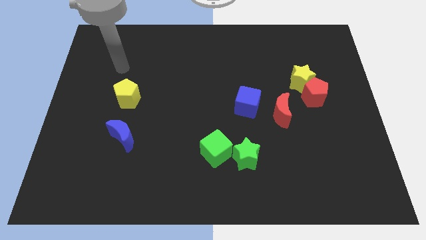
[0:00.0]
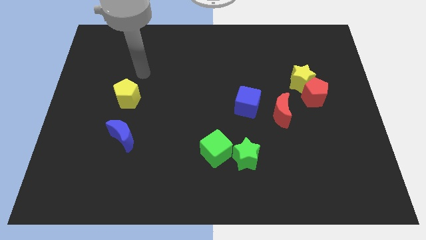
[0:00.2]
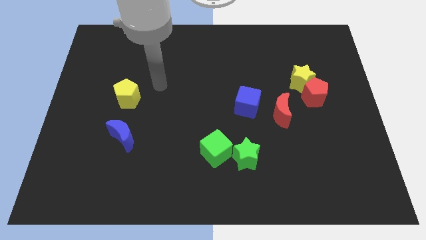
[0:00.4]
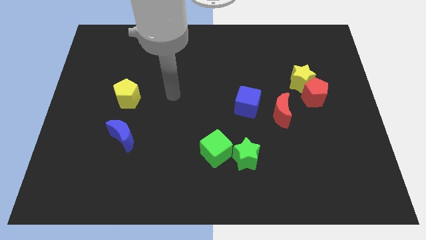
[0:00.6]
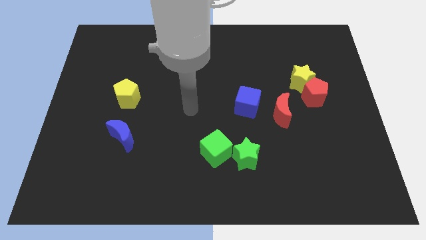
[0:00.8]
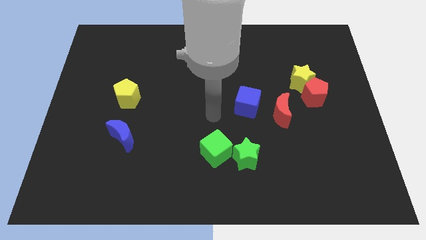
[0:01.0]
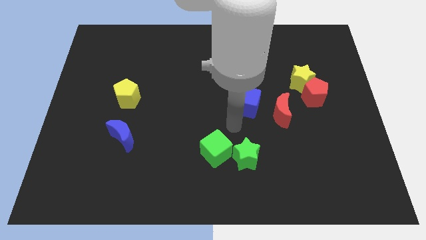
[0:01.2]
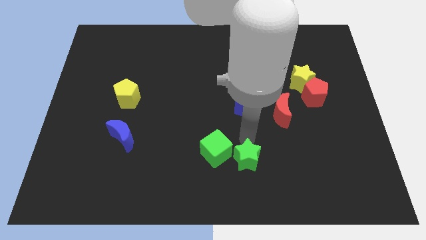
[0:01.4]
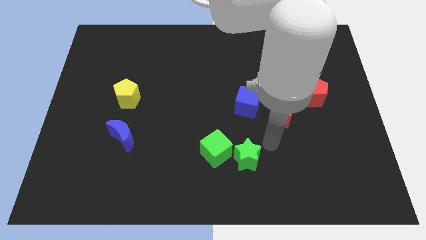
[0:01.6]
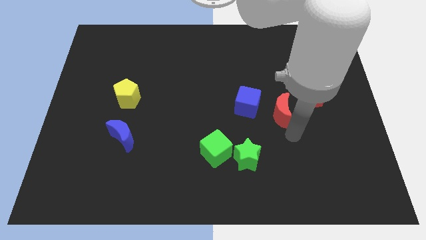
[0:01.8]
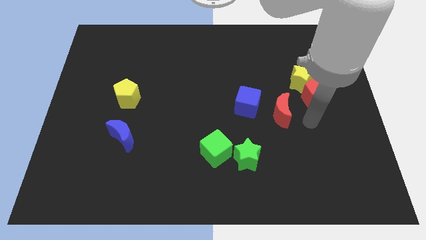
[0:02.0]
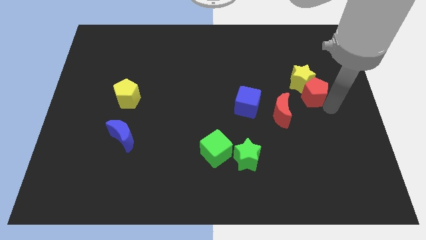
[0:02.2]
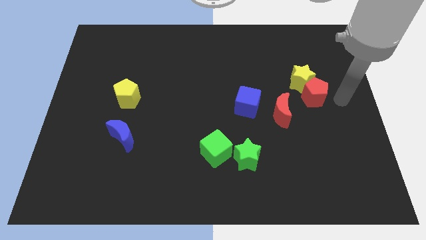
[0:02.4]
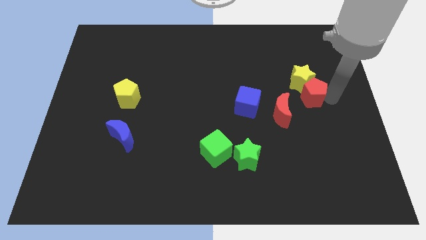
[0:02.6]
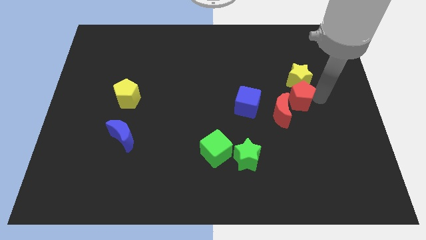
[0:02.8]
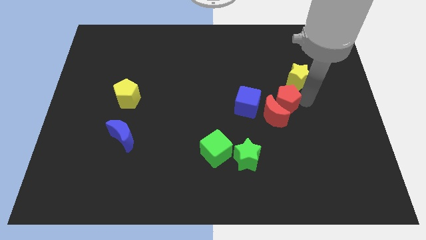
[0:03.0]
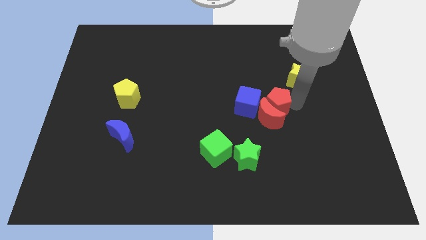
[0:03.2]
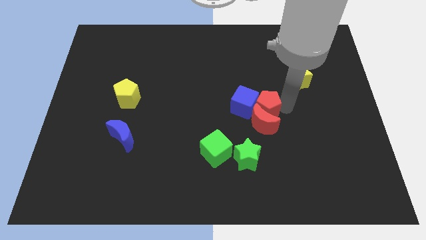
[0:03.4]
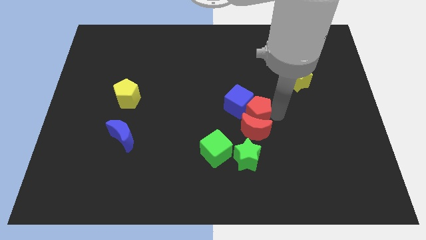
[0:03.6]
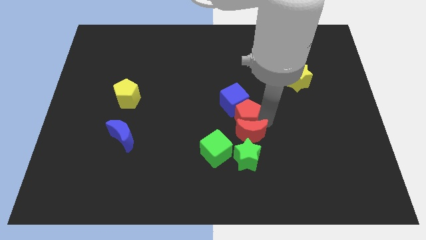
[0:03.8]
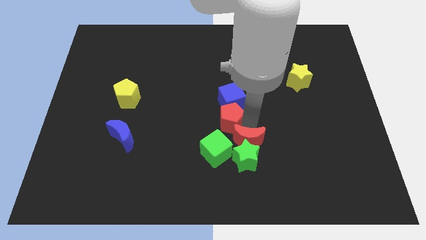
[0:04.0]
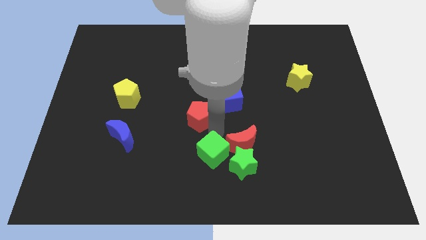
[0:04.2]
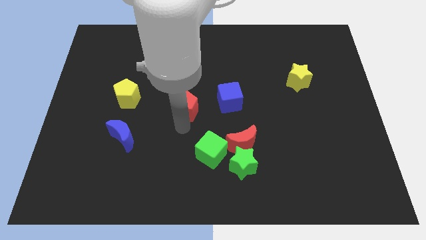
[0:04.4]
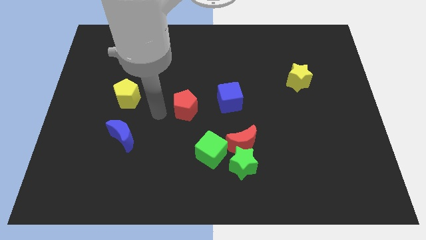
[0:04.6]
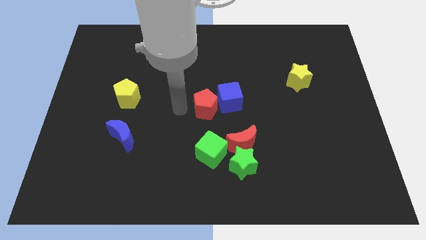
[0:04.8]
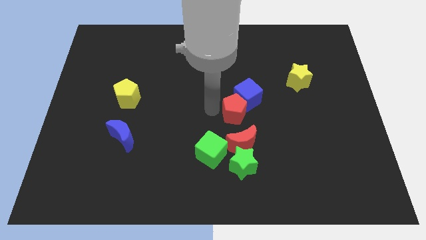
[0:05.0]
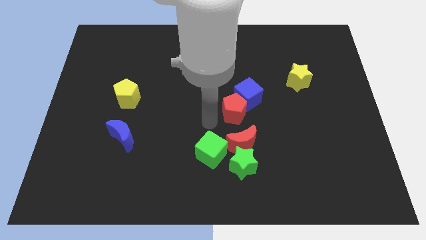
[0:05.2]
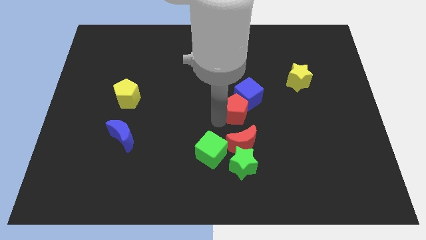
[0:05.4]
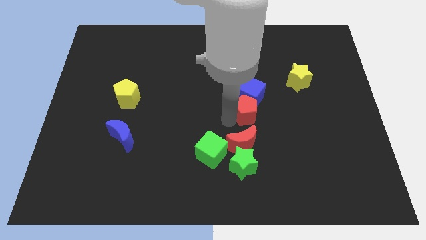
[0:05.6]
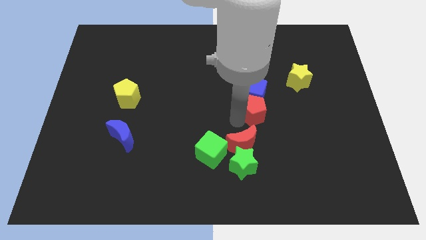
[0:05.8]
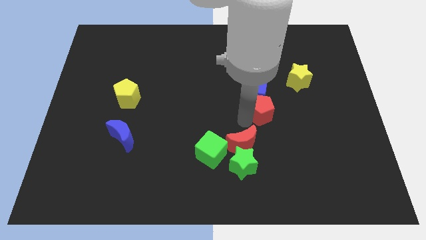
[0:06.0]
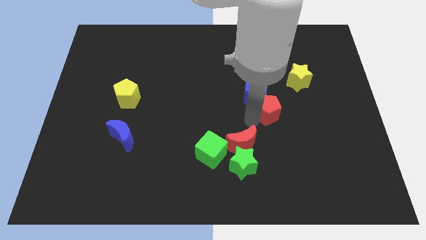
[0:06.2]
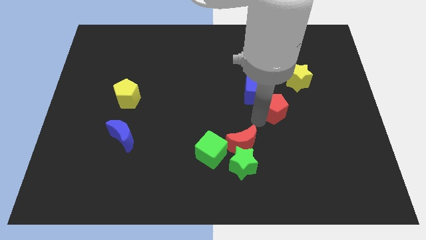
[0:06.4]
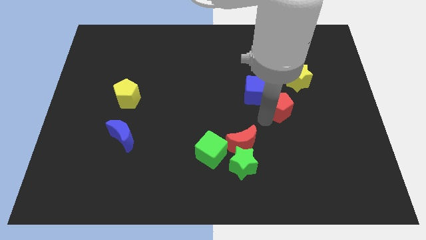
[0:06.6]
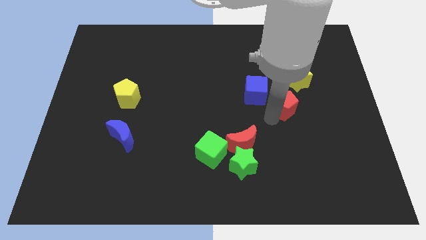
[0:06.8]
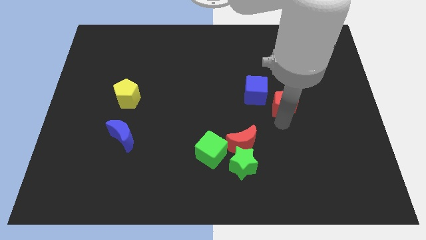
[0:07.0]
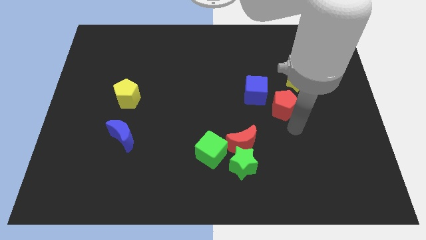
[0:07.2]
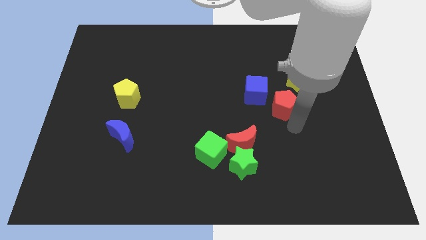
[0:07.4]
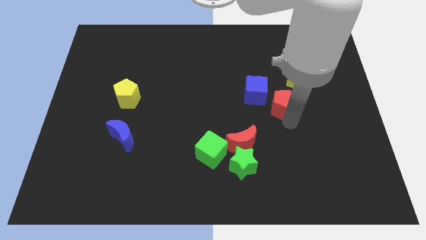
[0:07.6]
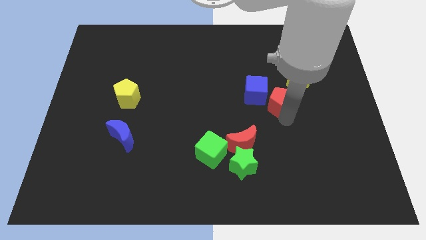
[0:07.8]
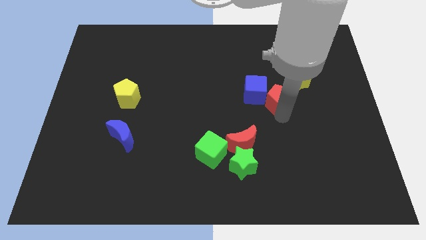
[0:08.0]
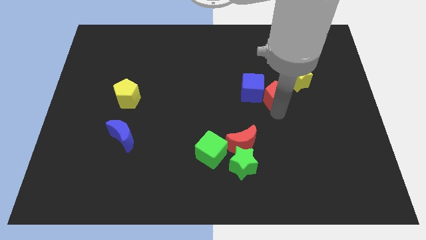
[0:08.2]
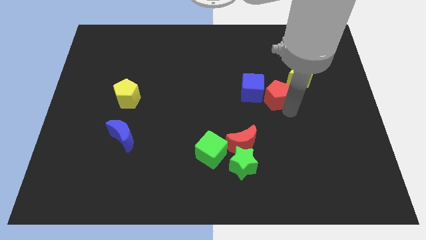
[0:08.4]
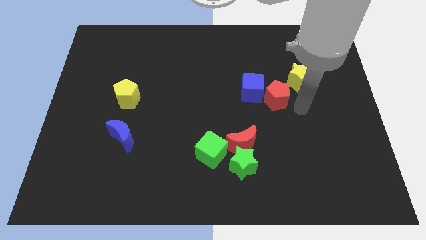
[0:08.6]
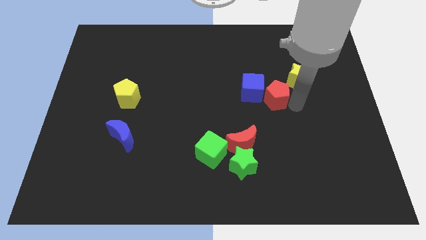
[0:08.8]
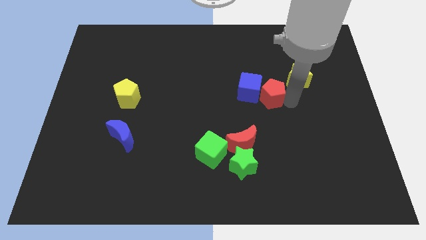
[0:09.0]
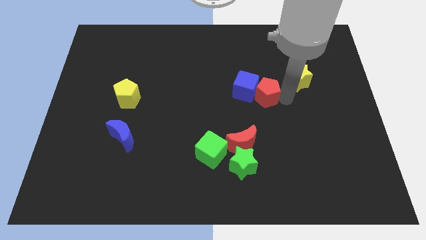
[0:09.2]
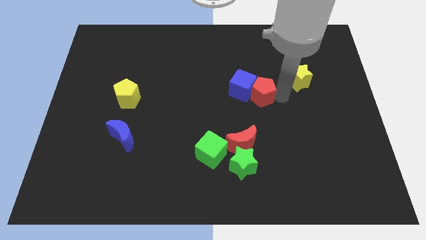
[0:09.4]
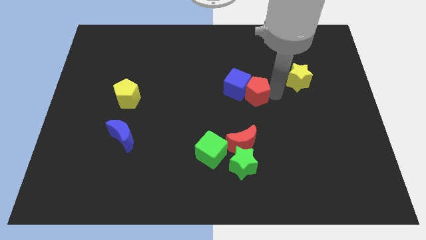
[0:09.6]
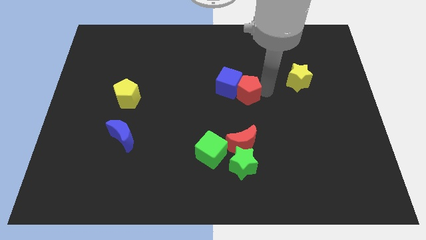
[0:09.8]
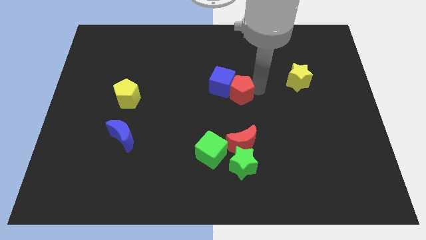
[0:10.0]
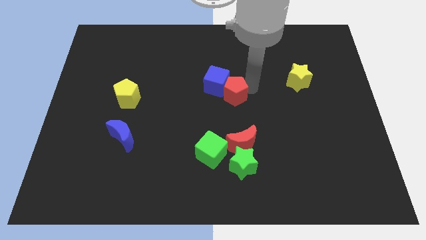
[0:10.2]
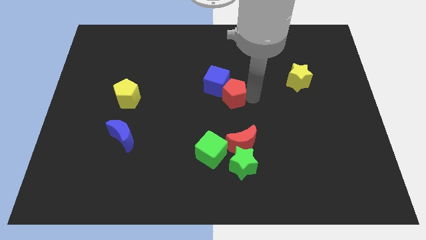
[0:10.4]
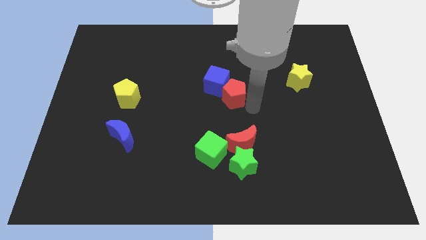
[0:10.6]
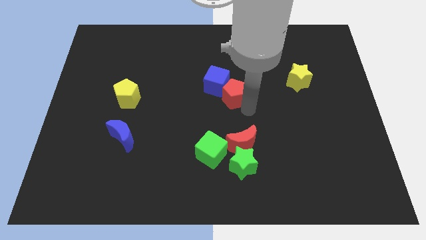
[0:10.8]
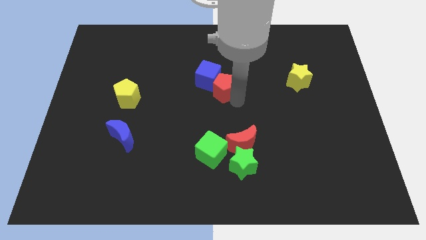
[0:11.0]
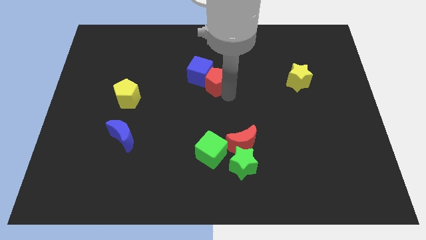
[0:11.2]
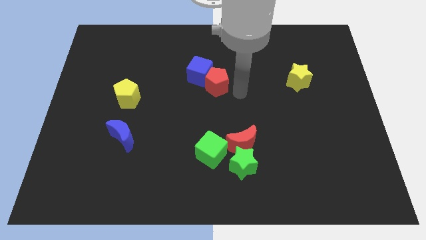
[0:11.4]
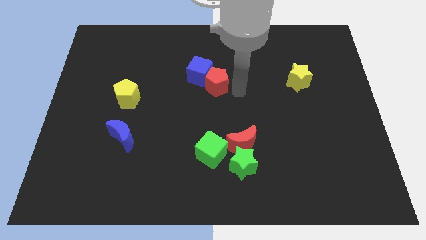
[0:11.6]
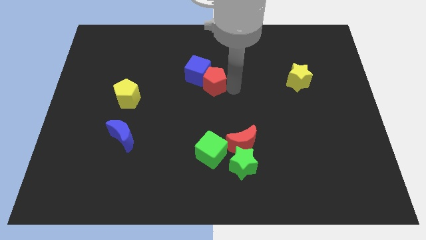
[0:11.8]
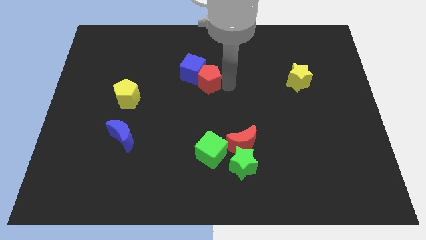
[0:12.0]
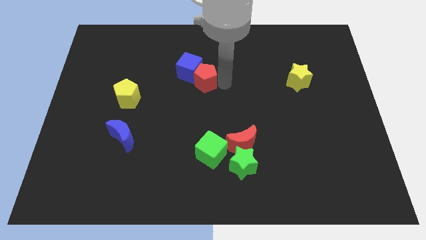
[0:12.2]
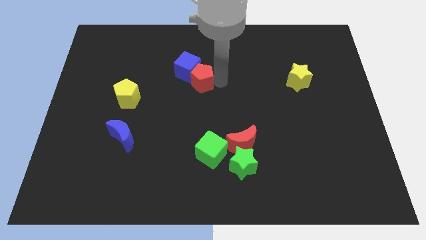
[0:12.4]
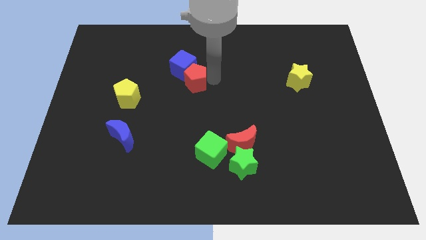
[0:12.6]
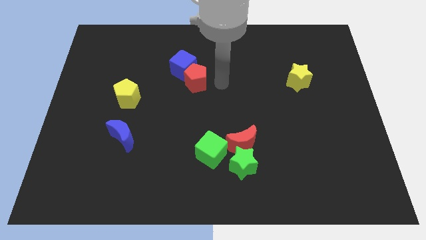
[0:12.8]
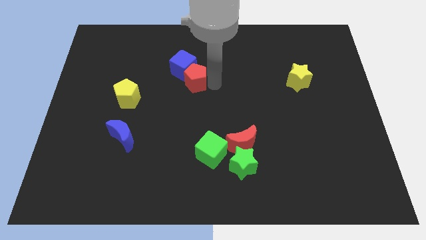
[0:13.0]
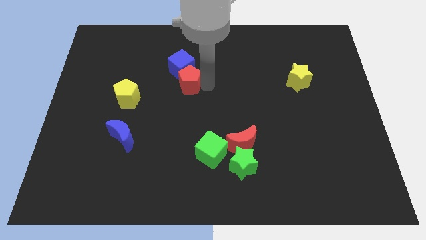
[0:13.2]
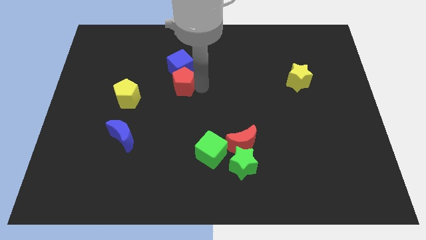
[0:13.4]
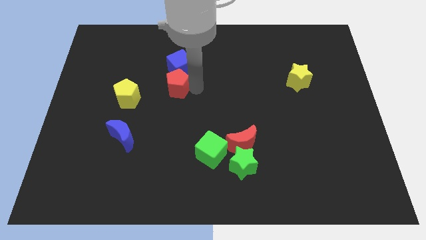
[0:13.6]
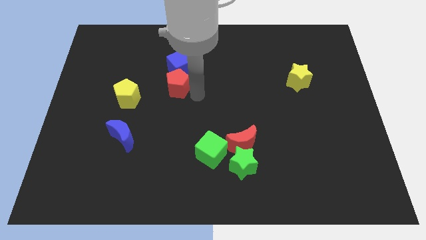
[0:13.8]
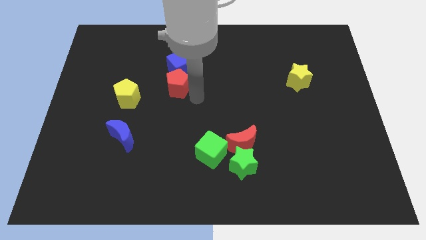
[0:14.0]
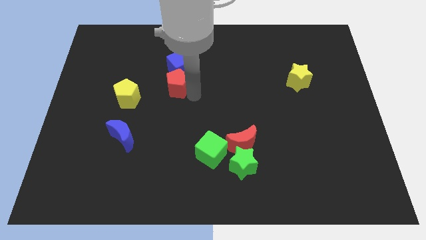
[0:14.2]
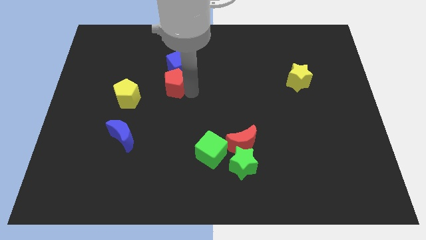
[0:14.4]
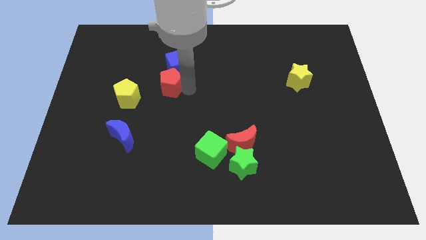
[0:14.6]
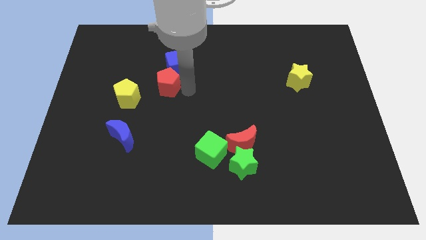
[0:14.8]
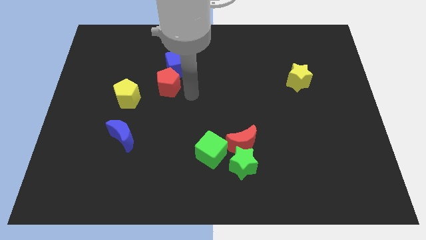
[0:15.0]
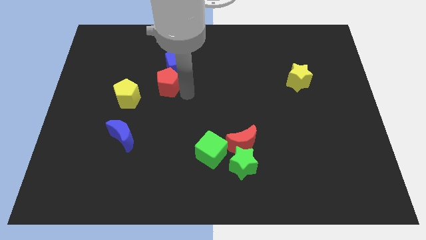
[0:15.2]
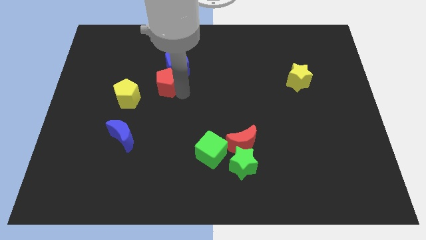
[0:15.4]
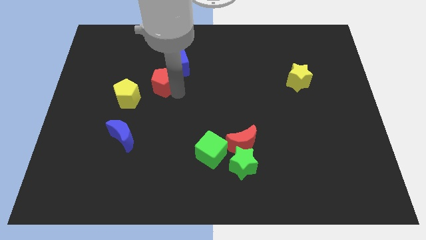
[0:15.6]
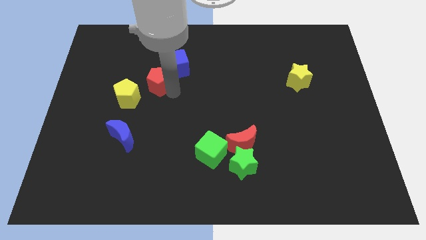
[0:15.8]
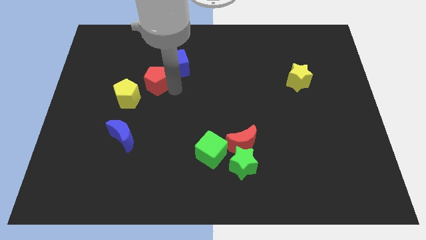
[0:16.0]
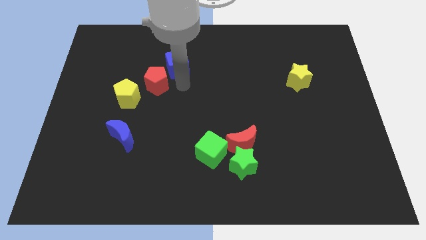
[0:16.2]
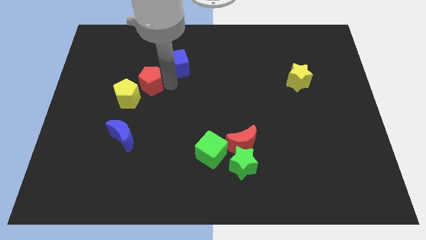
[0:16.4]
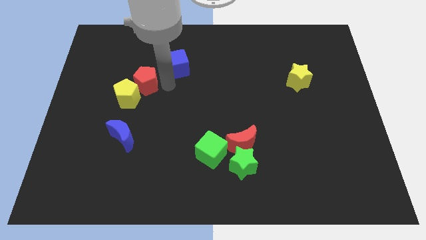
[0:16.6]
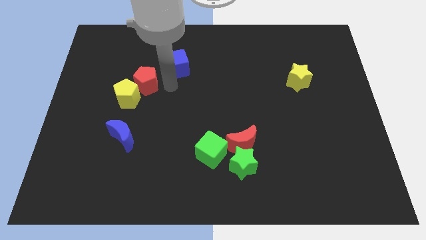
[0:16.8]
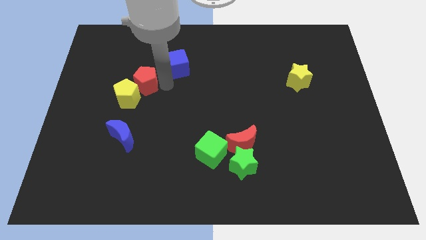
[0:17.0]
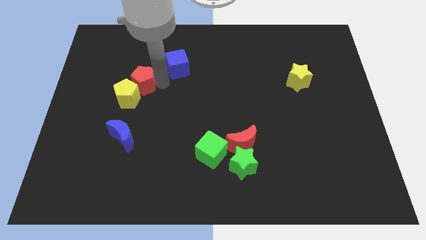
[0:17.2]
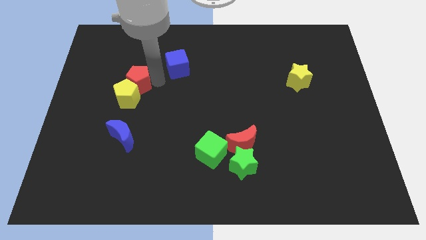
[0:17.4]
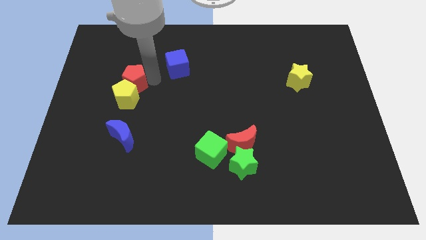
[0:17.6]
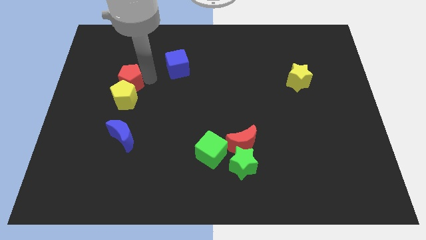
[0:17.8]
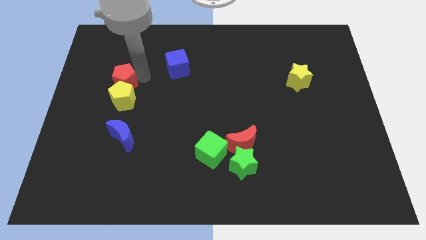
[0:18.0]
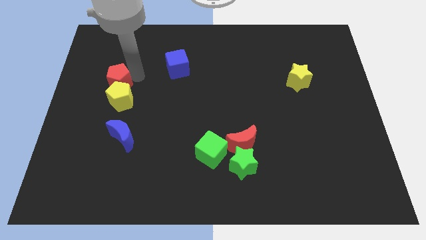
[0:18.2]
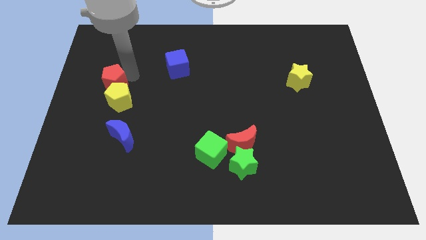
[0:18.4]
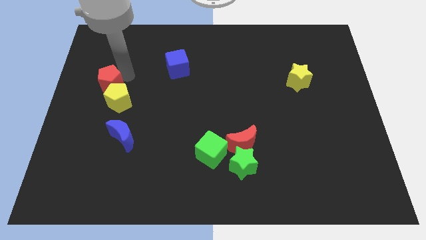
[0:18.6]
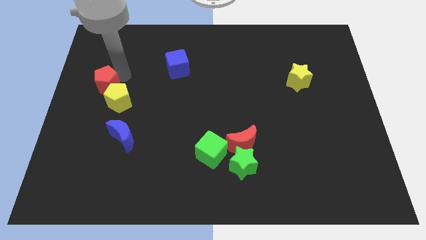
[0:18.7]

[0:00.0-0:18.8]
put the red pentagon to the left side
